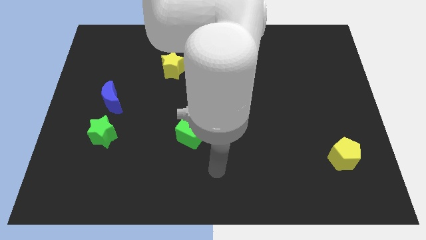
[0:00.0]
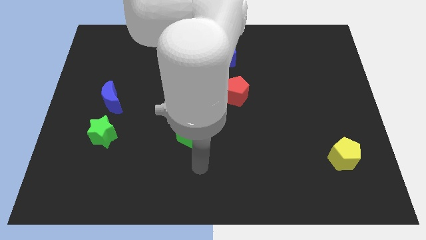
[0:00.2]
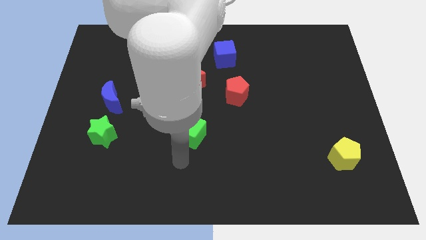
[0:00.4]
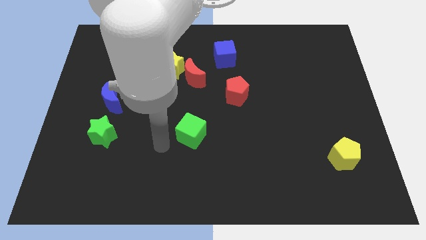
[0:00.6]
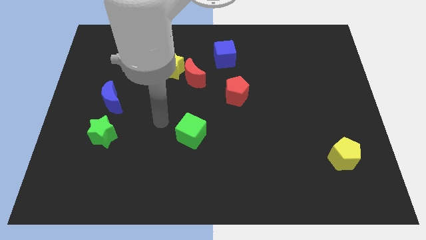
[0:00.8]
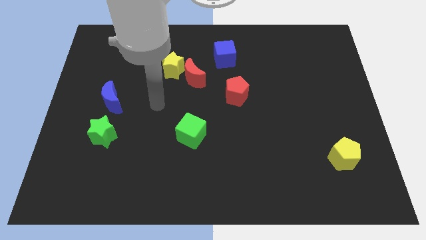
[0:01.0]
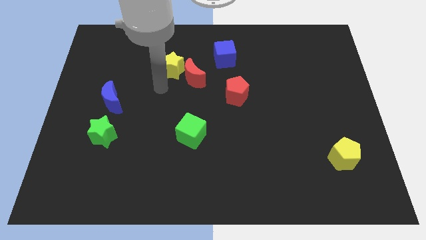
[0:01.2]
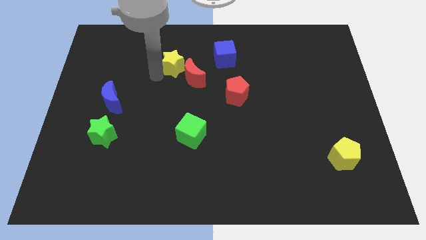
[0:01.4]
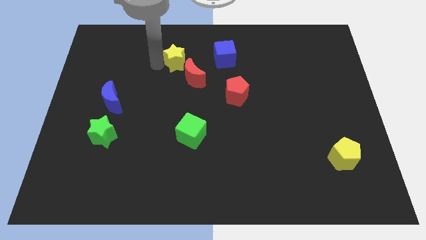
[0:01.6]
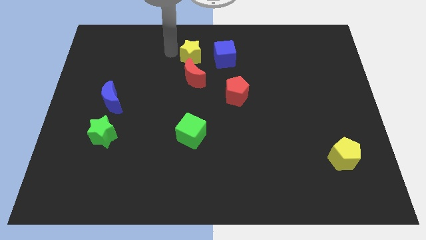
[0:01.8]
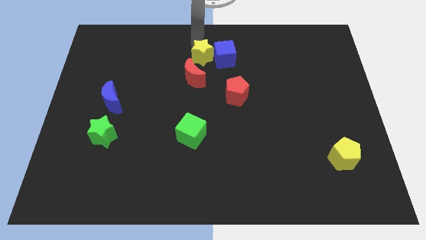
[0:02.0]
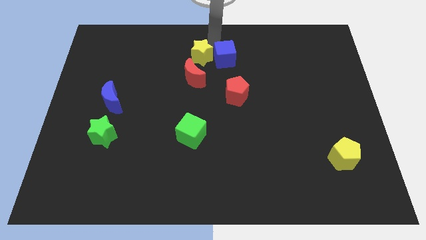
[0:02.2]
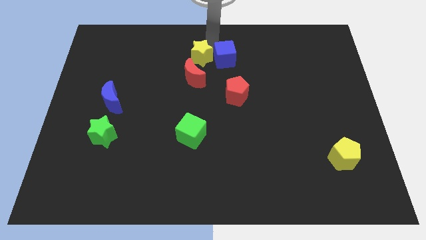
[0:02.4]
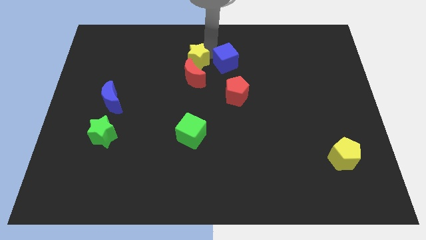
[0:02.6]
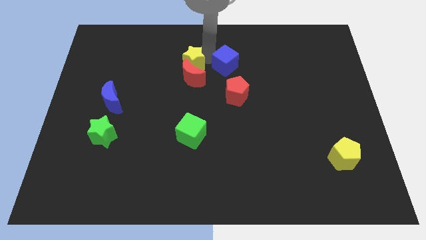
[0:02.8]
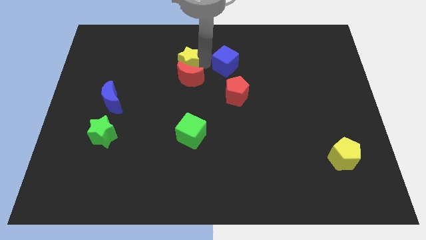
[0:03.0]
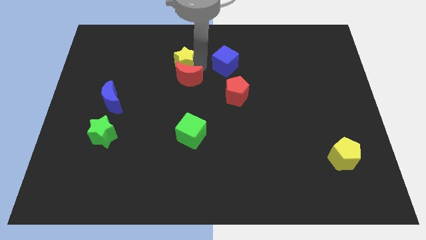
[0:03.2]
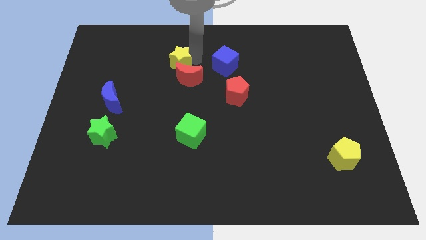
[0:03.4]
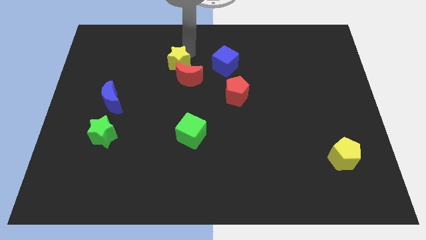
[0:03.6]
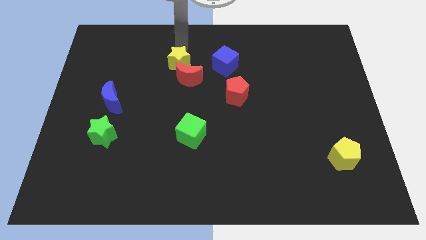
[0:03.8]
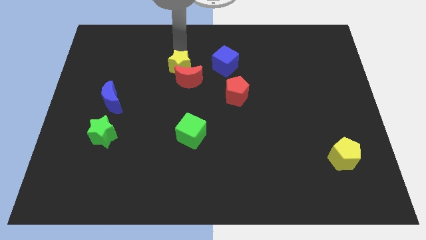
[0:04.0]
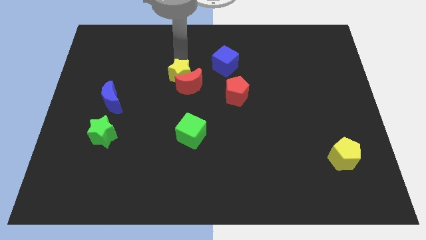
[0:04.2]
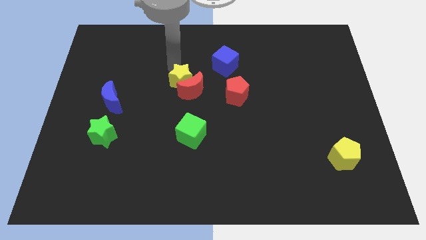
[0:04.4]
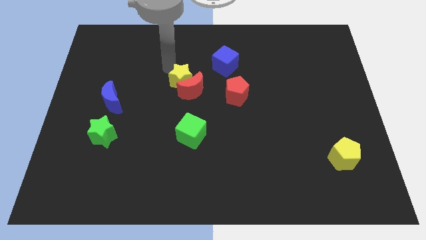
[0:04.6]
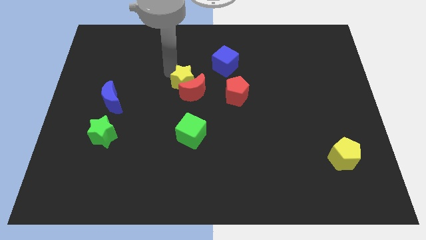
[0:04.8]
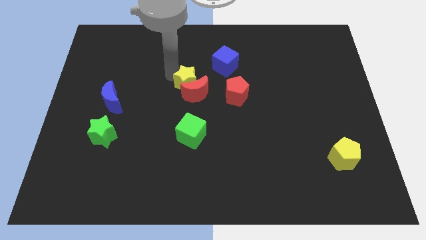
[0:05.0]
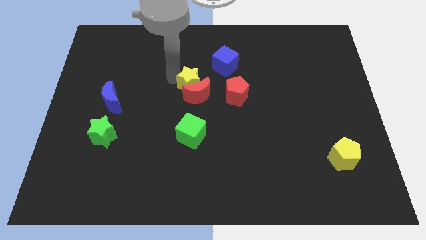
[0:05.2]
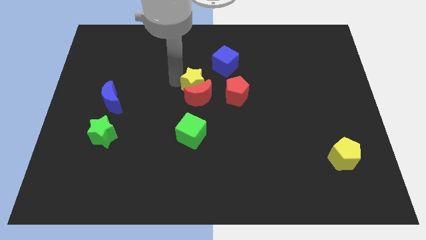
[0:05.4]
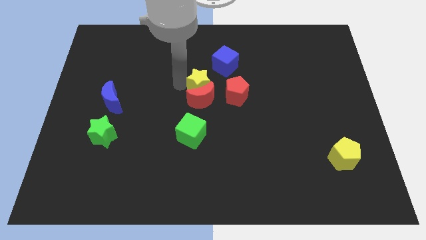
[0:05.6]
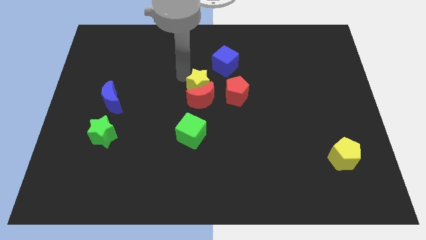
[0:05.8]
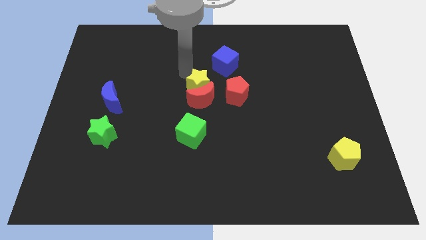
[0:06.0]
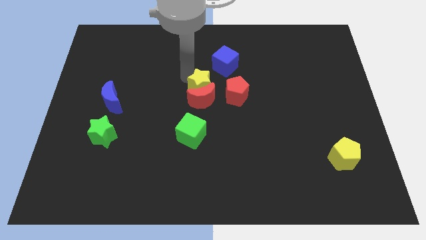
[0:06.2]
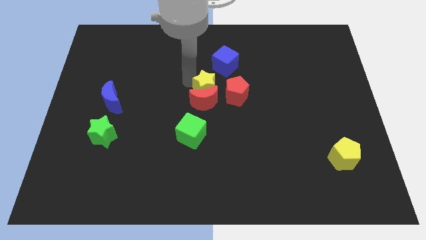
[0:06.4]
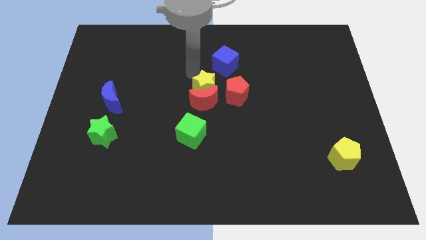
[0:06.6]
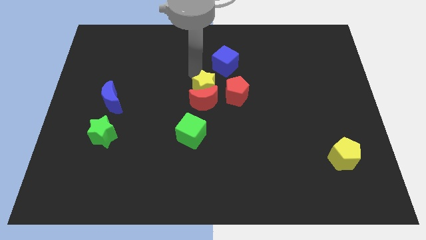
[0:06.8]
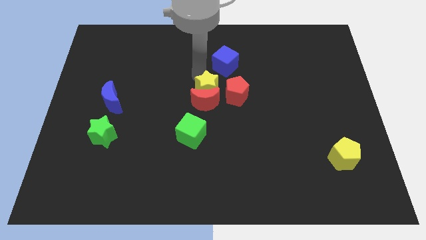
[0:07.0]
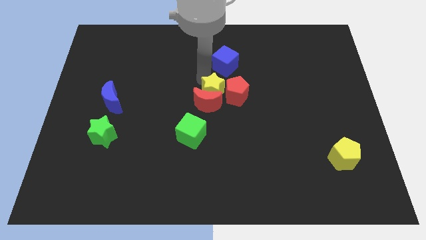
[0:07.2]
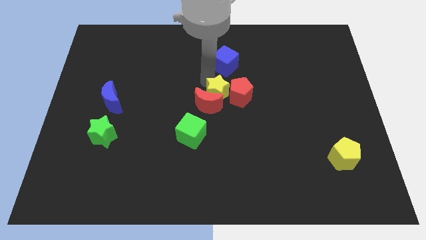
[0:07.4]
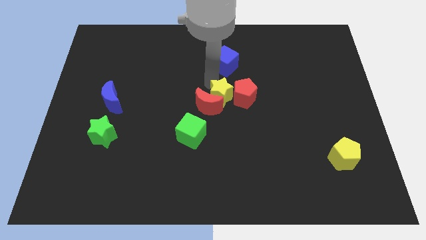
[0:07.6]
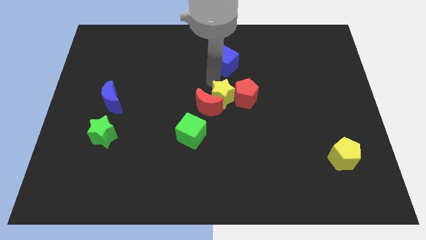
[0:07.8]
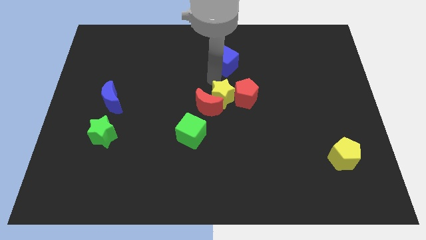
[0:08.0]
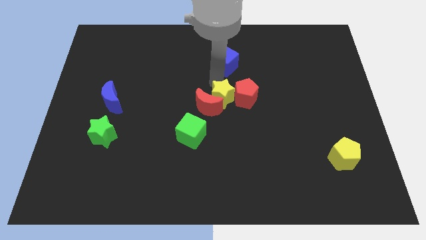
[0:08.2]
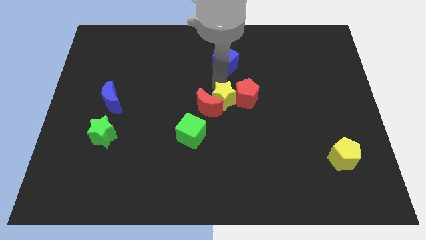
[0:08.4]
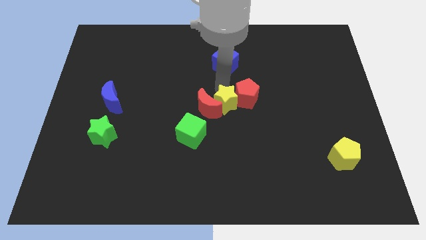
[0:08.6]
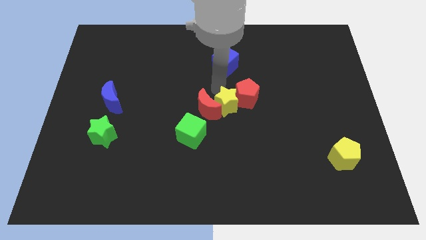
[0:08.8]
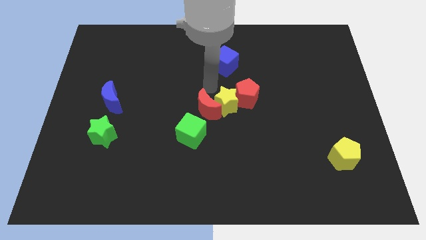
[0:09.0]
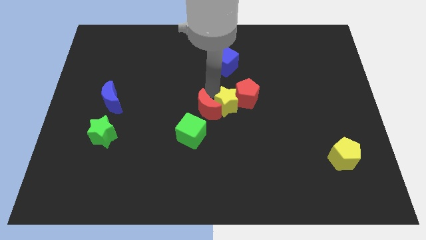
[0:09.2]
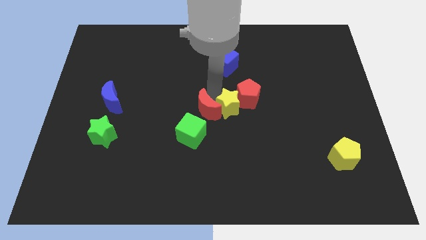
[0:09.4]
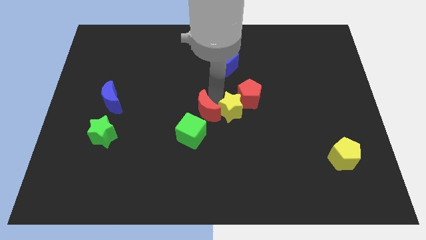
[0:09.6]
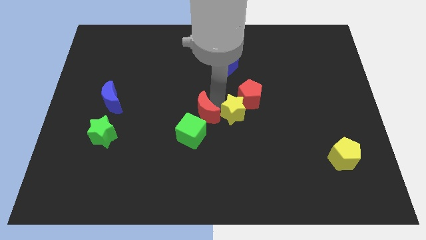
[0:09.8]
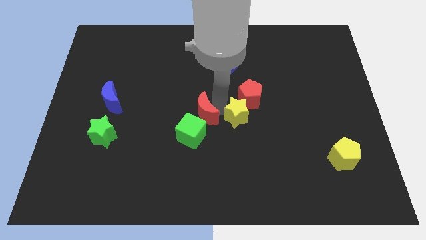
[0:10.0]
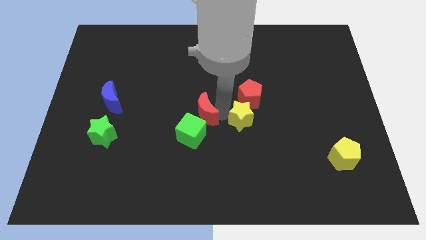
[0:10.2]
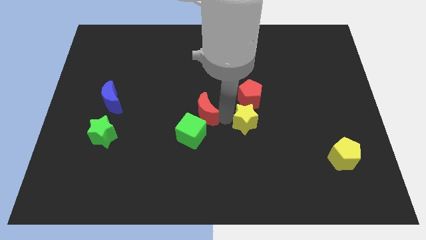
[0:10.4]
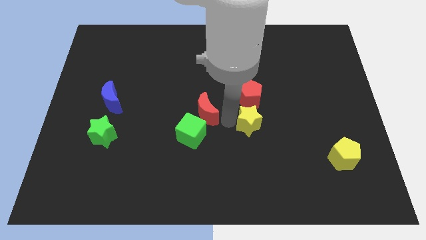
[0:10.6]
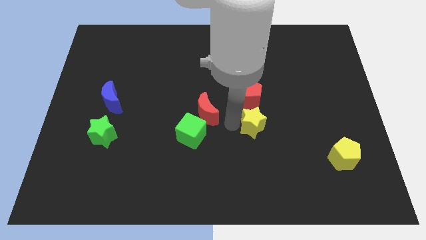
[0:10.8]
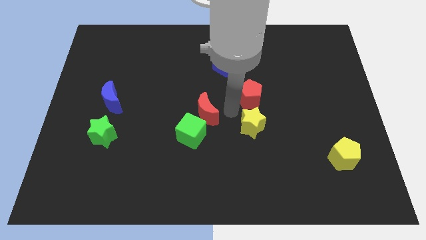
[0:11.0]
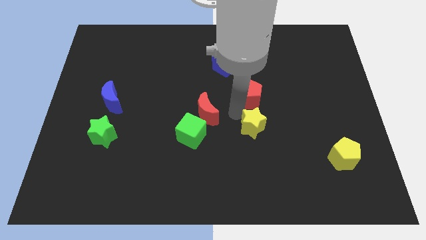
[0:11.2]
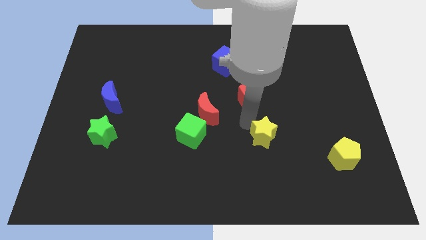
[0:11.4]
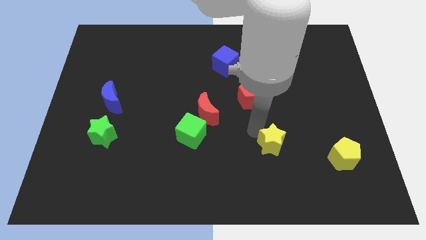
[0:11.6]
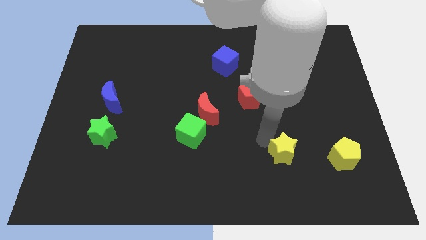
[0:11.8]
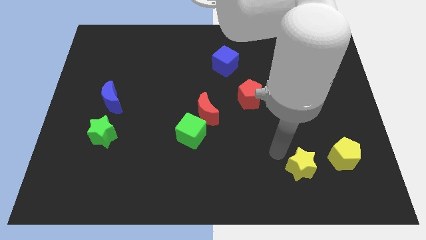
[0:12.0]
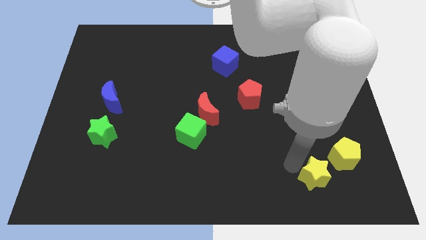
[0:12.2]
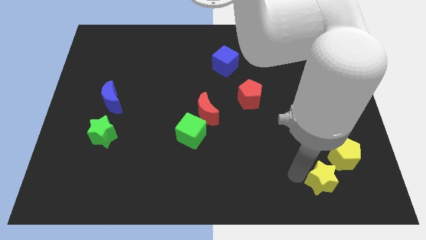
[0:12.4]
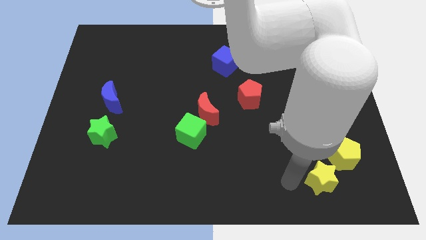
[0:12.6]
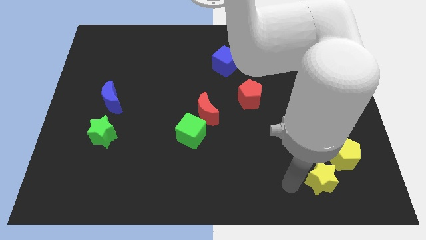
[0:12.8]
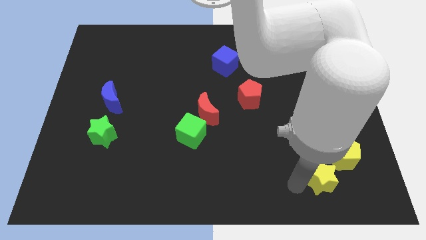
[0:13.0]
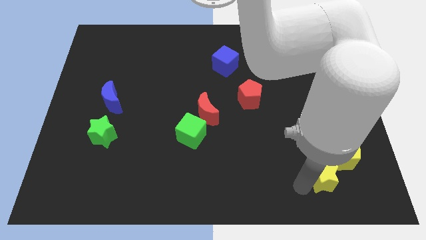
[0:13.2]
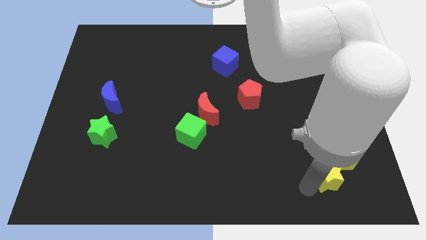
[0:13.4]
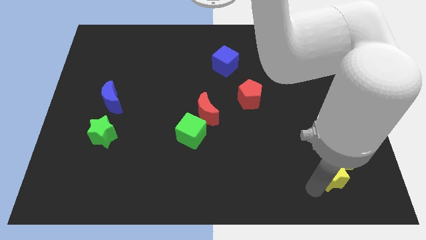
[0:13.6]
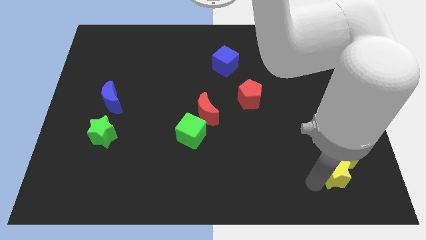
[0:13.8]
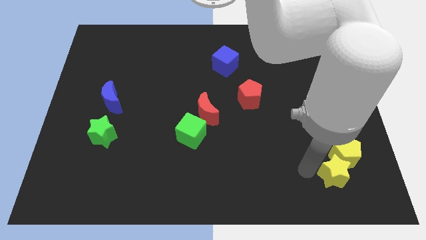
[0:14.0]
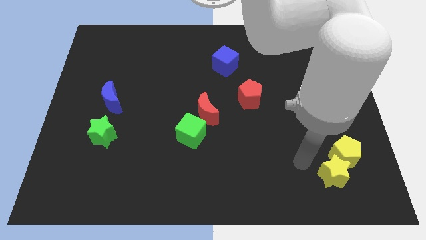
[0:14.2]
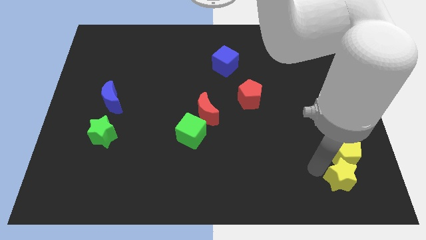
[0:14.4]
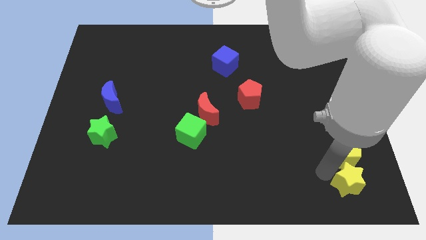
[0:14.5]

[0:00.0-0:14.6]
put the yellow star to the bottom right of the board
